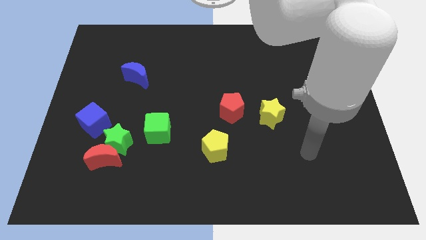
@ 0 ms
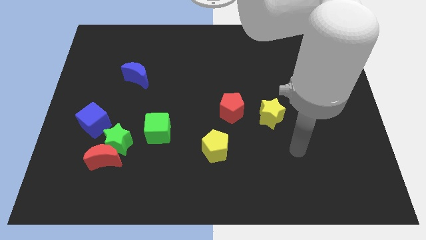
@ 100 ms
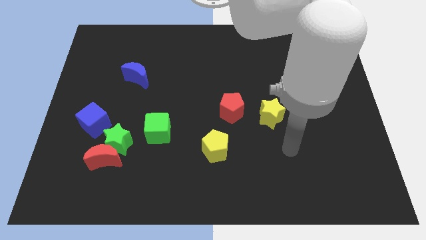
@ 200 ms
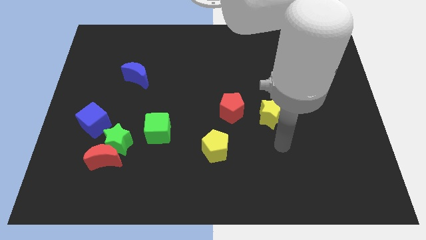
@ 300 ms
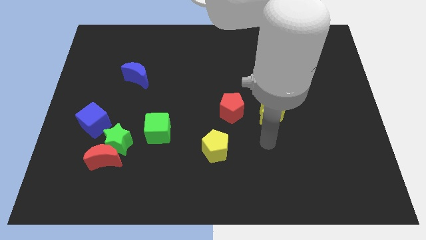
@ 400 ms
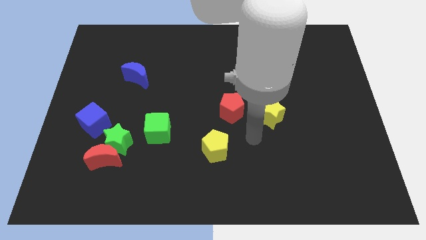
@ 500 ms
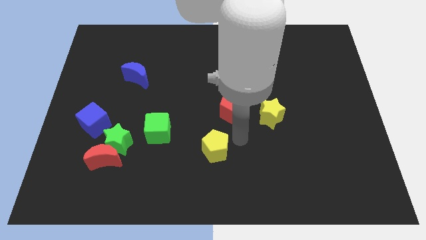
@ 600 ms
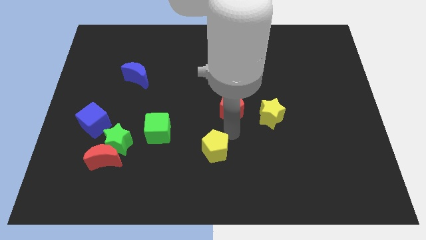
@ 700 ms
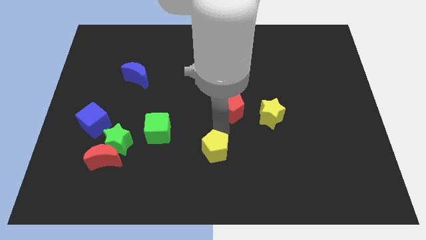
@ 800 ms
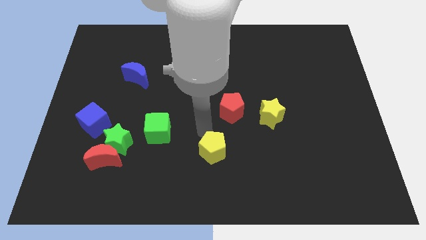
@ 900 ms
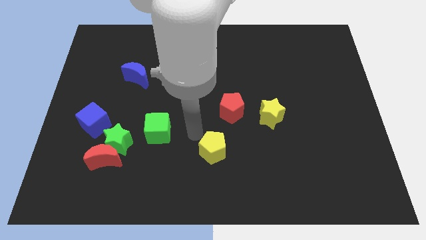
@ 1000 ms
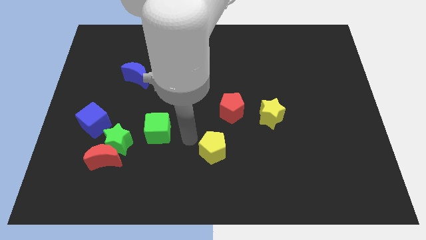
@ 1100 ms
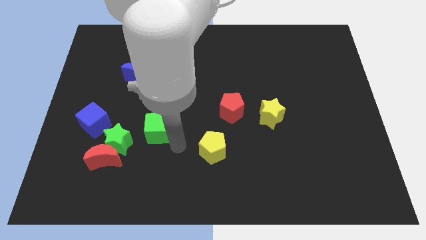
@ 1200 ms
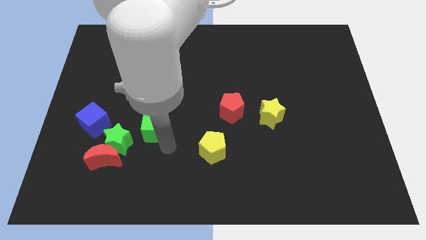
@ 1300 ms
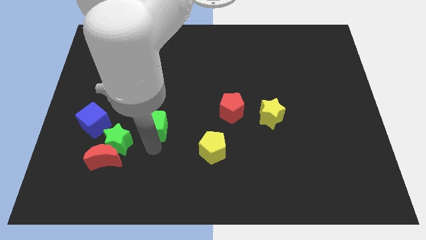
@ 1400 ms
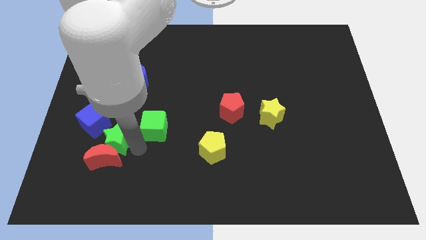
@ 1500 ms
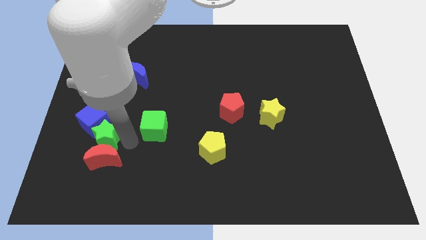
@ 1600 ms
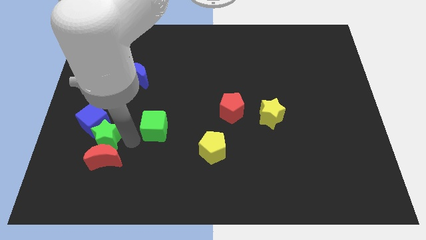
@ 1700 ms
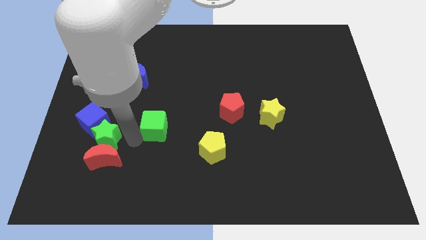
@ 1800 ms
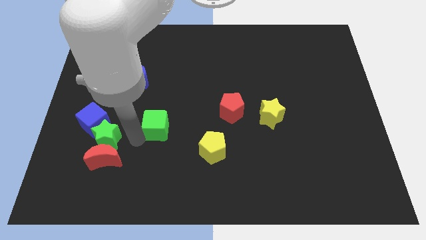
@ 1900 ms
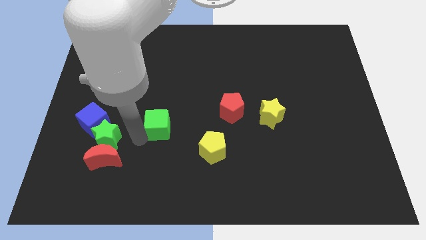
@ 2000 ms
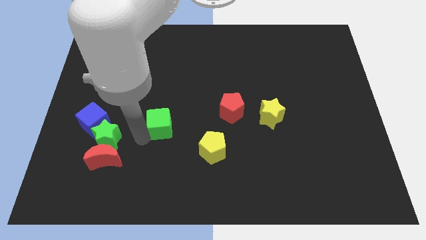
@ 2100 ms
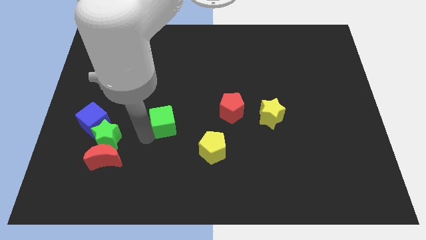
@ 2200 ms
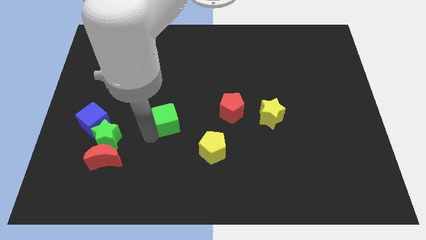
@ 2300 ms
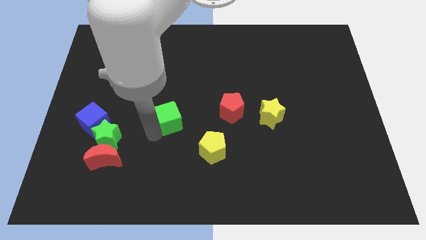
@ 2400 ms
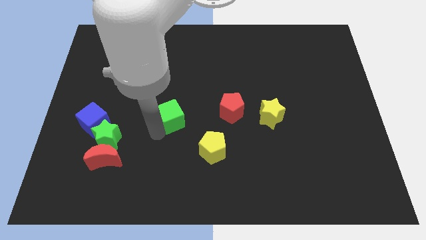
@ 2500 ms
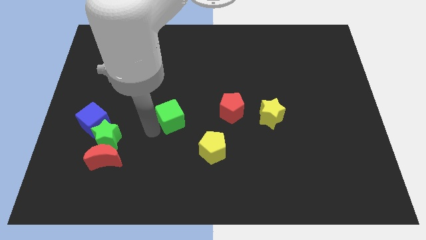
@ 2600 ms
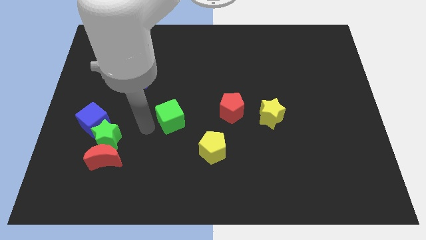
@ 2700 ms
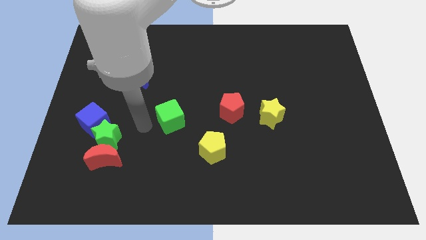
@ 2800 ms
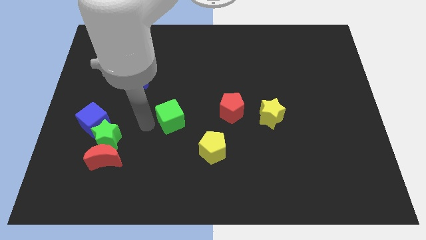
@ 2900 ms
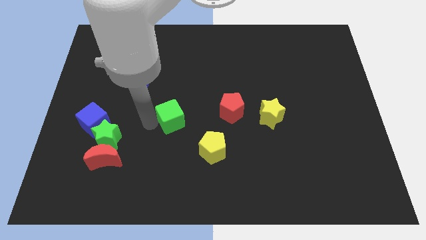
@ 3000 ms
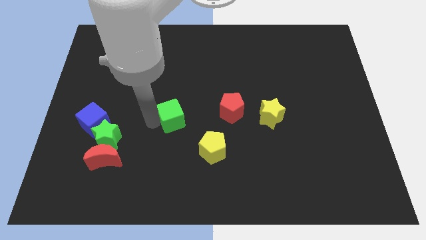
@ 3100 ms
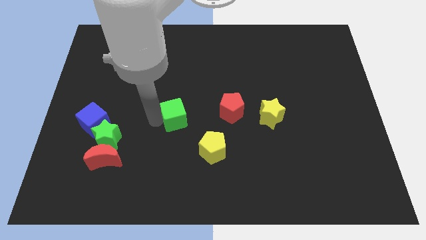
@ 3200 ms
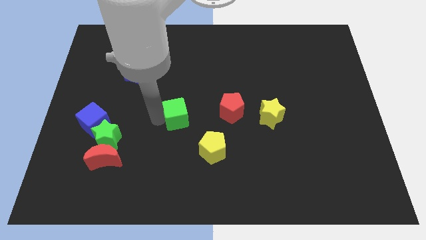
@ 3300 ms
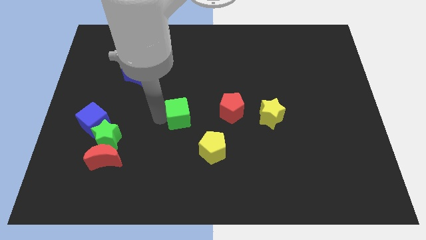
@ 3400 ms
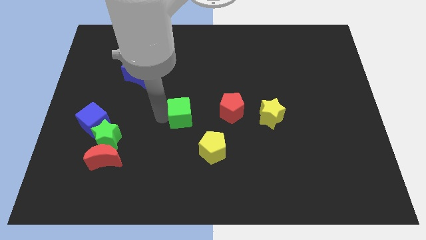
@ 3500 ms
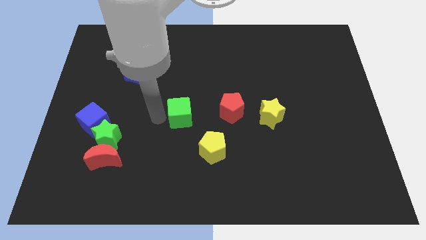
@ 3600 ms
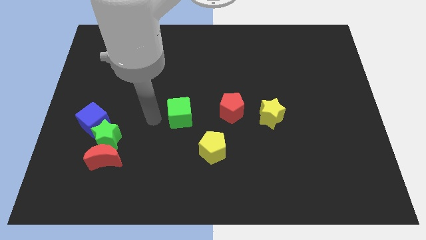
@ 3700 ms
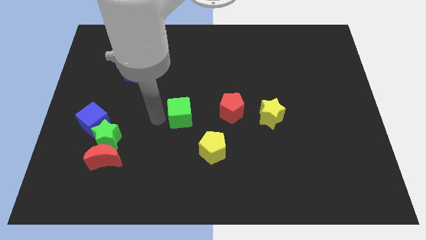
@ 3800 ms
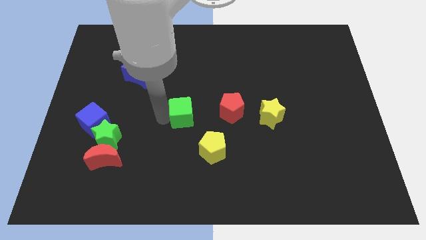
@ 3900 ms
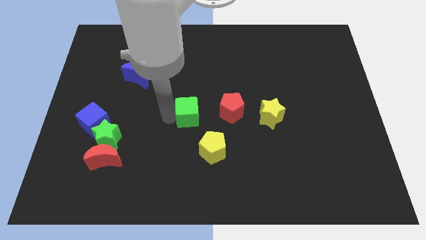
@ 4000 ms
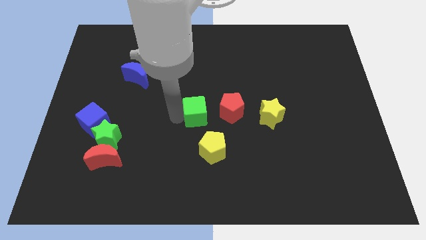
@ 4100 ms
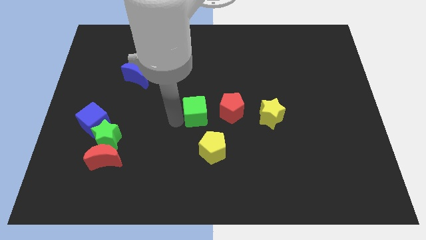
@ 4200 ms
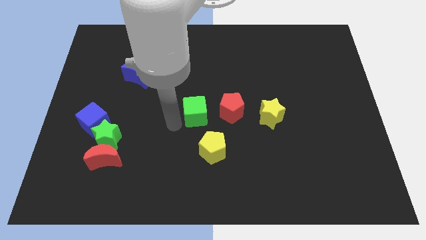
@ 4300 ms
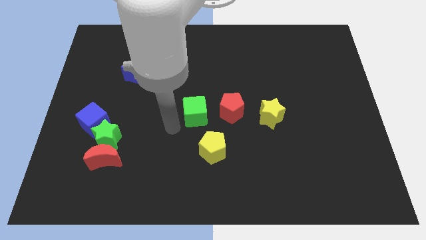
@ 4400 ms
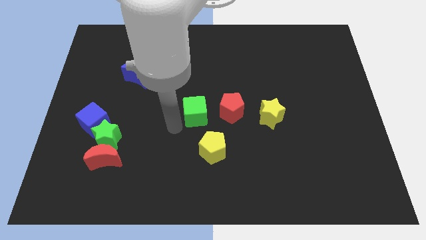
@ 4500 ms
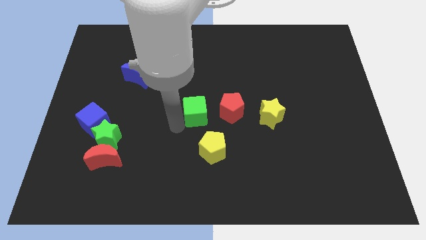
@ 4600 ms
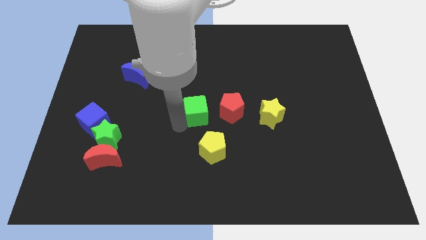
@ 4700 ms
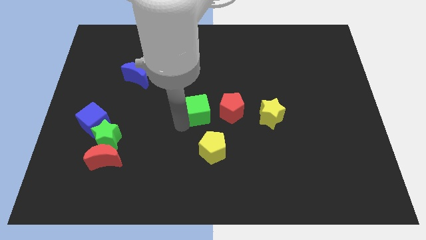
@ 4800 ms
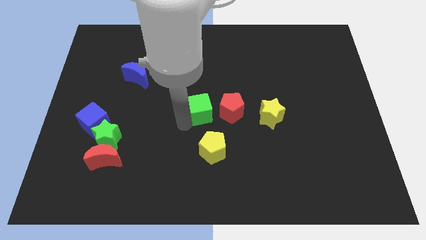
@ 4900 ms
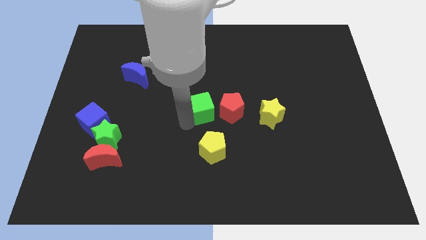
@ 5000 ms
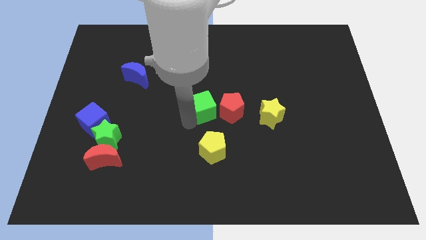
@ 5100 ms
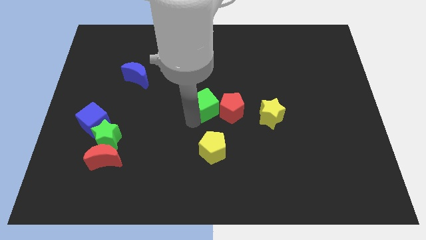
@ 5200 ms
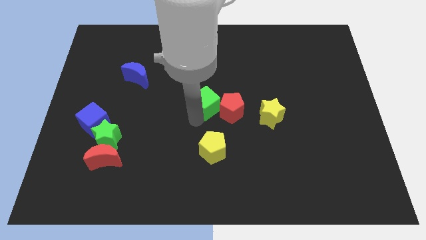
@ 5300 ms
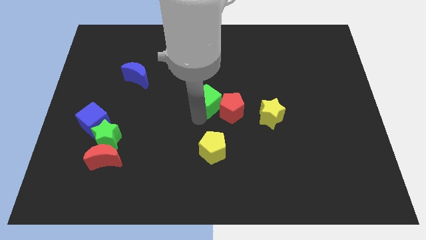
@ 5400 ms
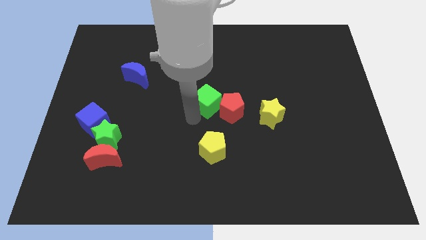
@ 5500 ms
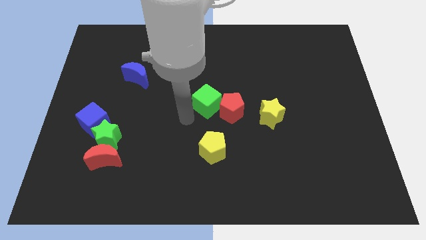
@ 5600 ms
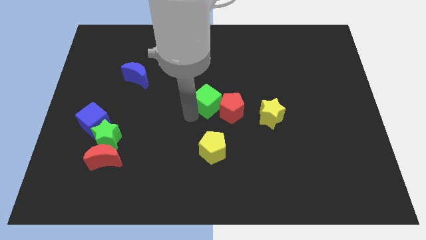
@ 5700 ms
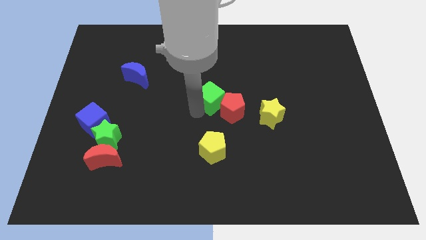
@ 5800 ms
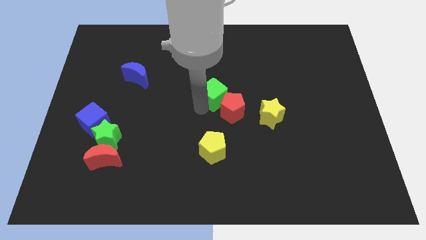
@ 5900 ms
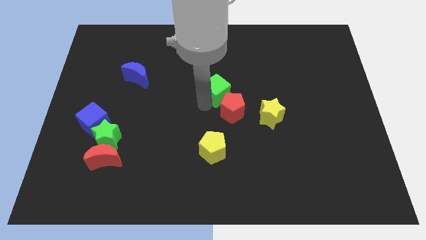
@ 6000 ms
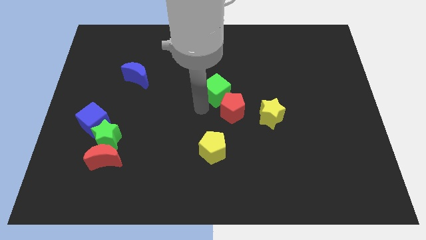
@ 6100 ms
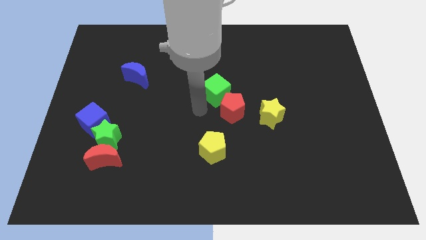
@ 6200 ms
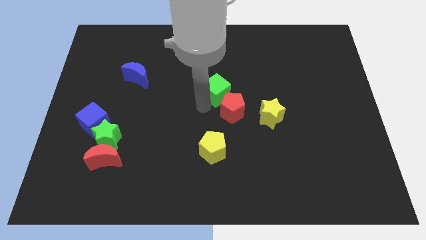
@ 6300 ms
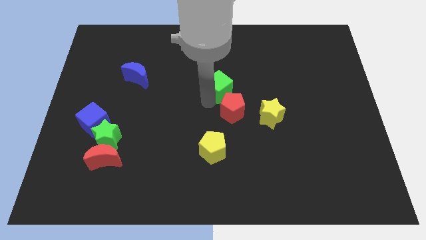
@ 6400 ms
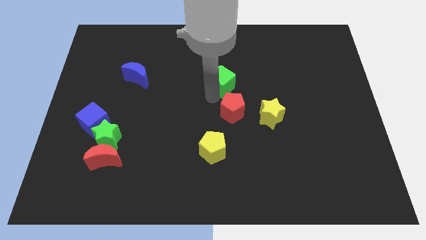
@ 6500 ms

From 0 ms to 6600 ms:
slide the green cube diagonally upwards and right

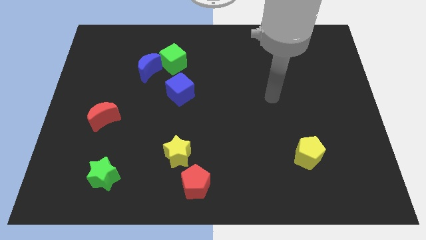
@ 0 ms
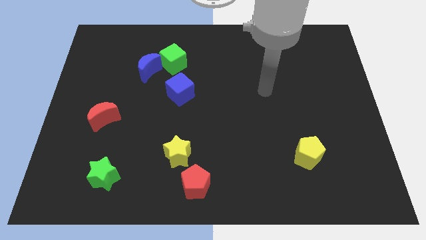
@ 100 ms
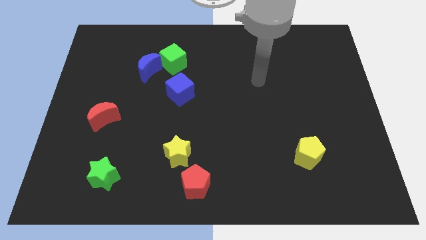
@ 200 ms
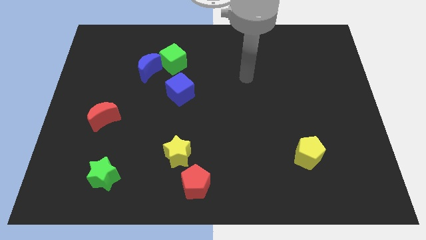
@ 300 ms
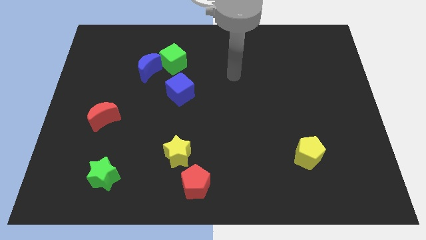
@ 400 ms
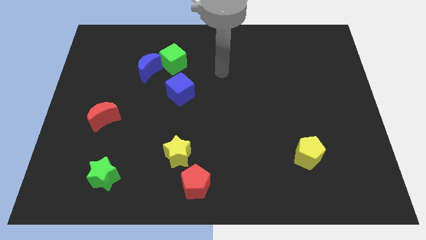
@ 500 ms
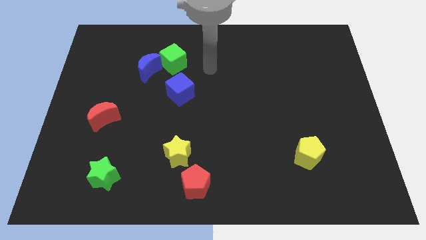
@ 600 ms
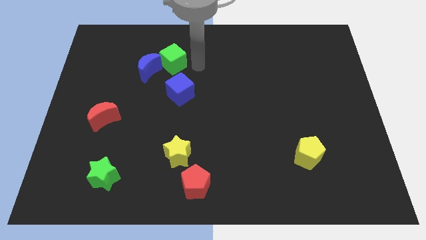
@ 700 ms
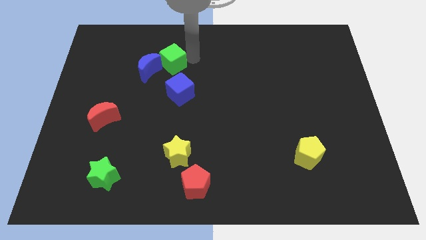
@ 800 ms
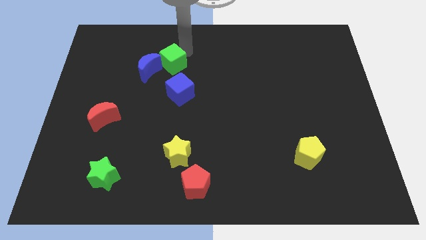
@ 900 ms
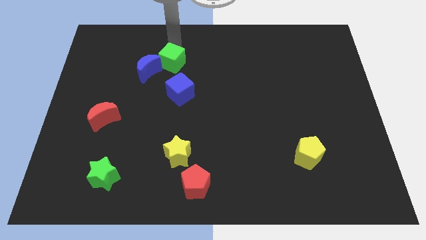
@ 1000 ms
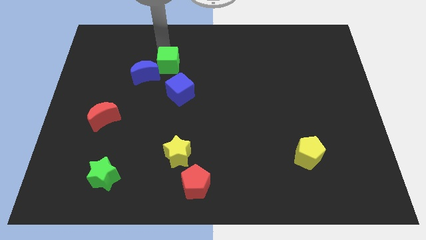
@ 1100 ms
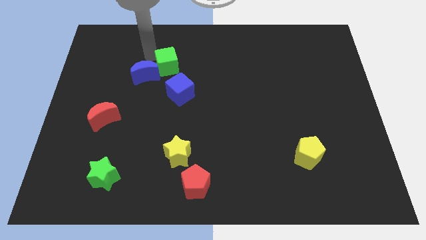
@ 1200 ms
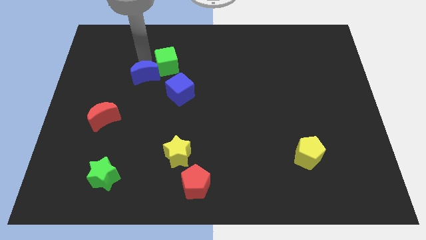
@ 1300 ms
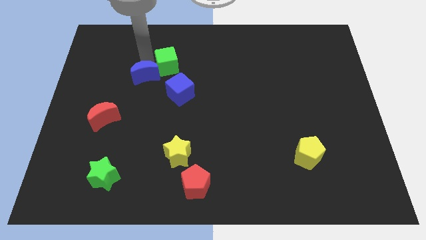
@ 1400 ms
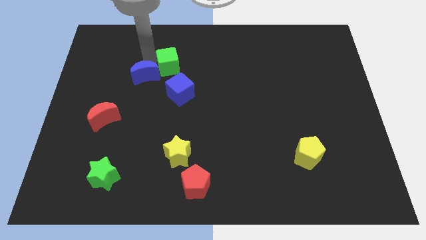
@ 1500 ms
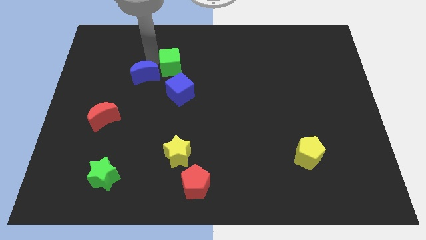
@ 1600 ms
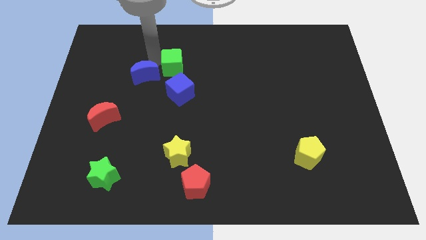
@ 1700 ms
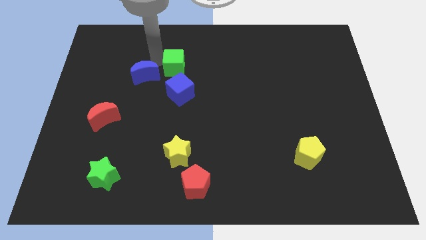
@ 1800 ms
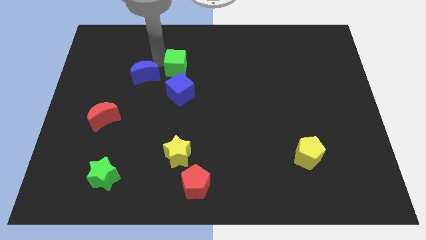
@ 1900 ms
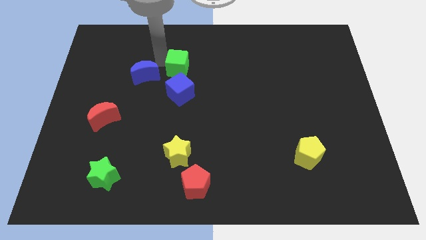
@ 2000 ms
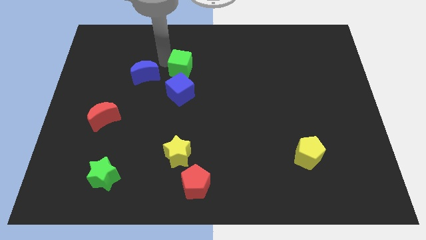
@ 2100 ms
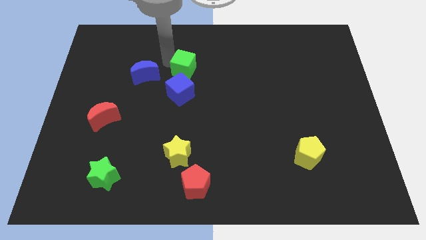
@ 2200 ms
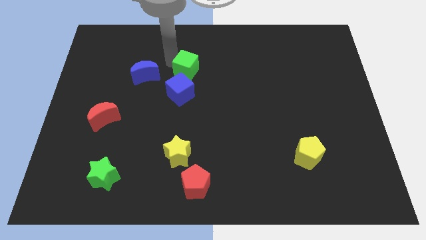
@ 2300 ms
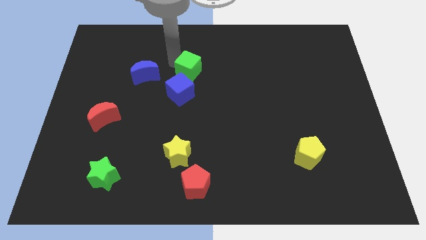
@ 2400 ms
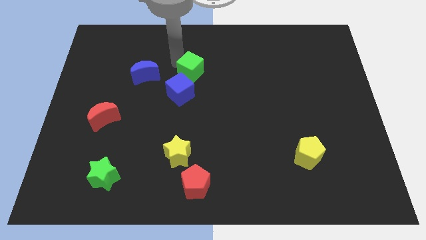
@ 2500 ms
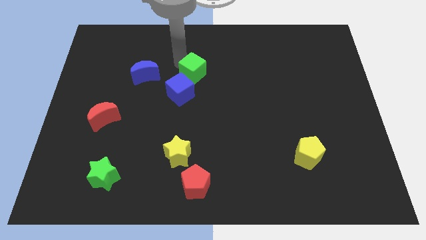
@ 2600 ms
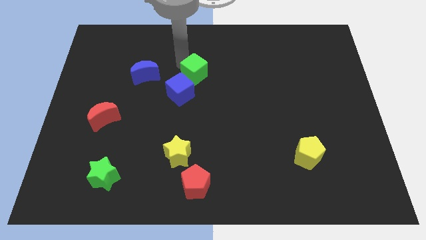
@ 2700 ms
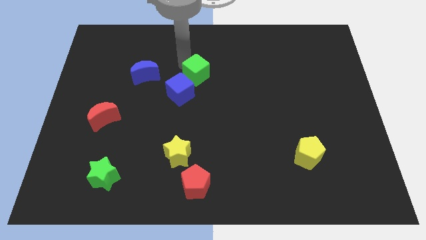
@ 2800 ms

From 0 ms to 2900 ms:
move the green cube a bit downwards and then right
